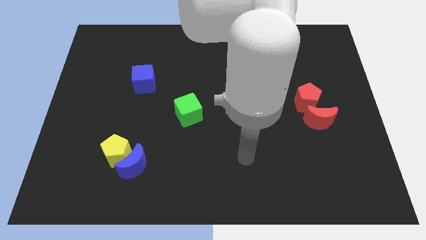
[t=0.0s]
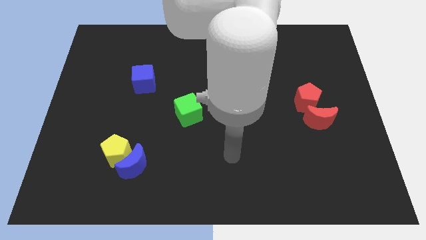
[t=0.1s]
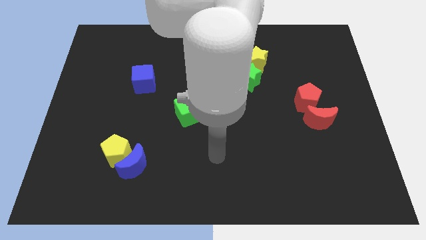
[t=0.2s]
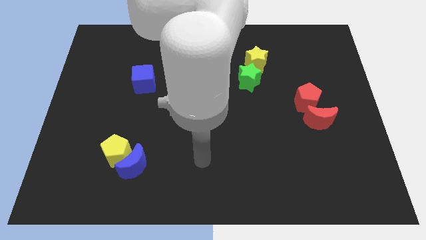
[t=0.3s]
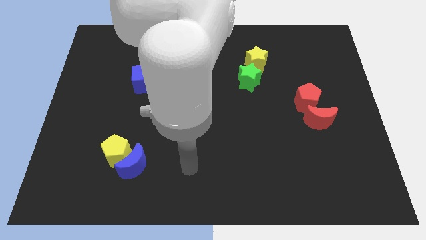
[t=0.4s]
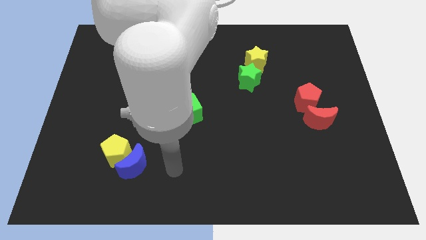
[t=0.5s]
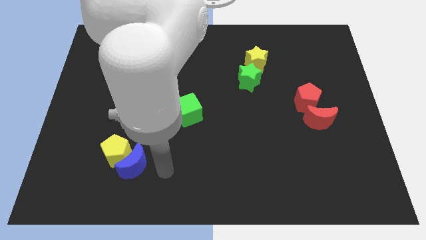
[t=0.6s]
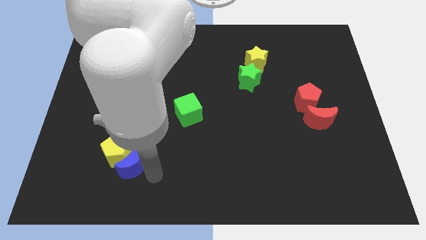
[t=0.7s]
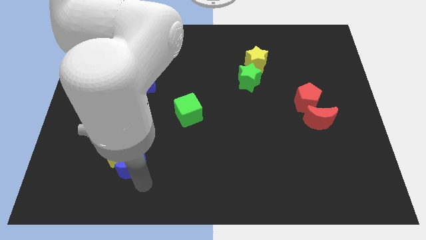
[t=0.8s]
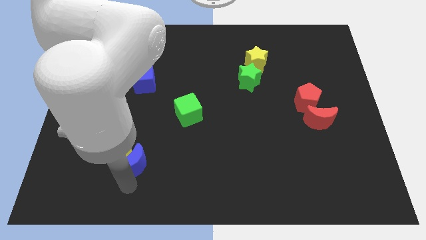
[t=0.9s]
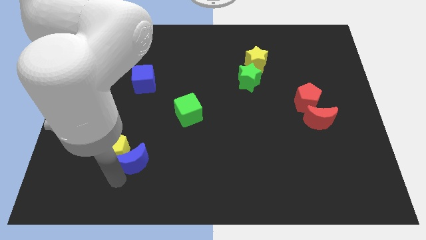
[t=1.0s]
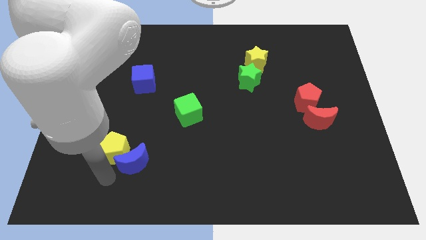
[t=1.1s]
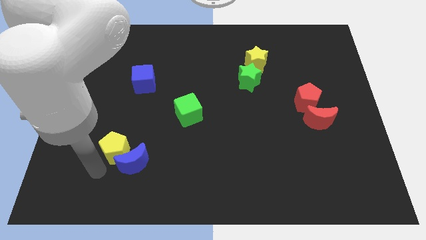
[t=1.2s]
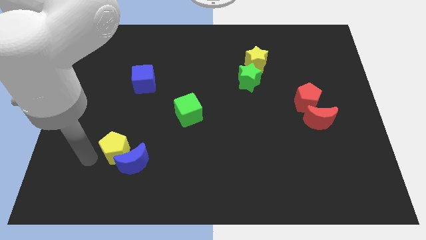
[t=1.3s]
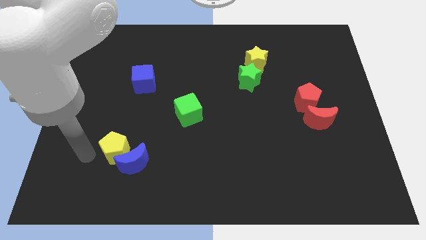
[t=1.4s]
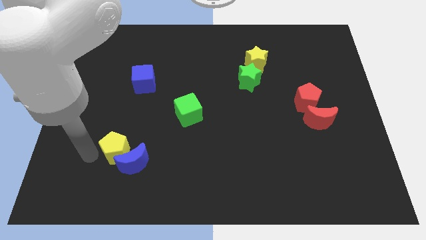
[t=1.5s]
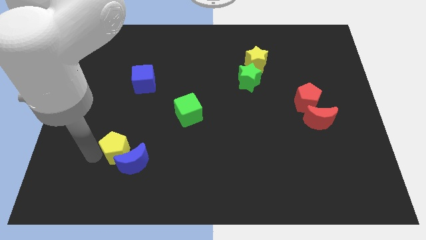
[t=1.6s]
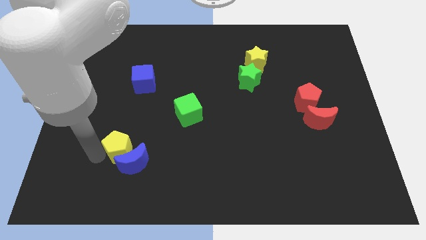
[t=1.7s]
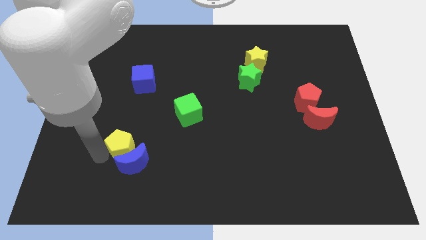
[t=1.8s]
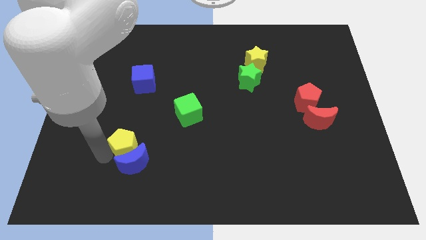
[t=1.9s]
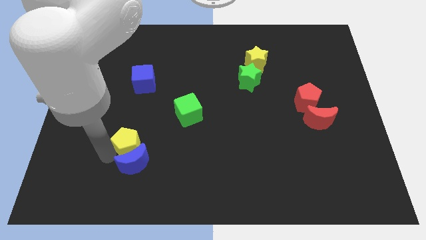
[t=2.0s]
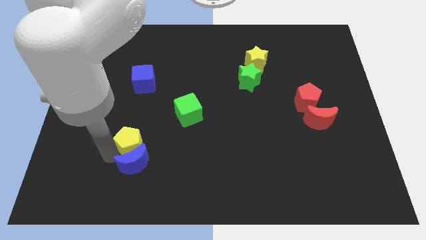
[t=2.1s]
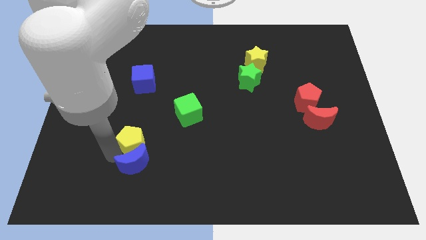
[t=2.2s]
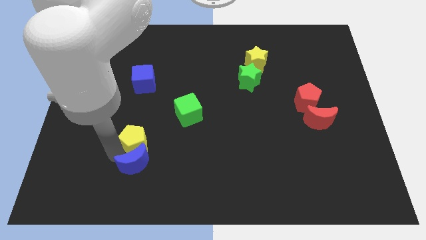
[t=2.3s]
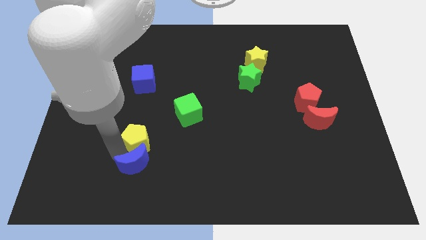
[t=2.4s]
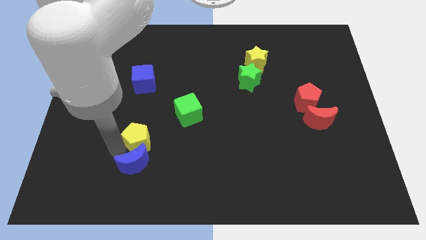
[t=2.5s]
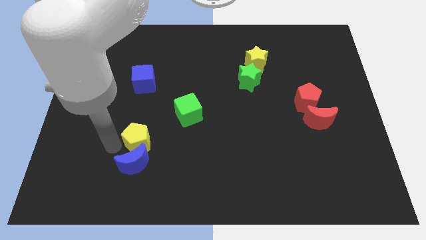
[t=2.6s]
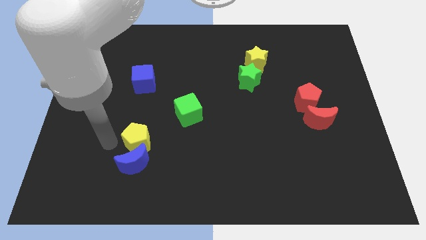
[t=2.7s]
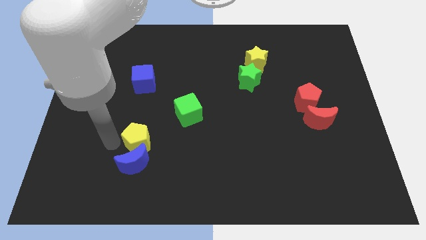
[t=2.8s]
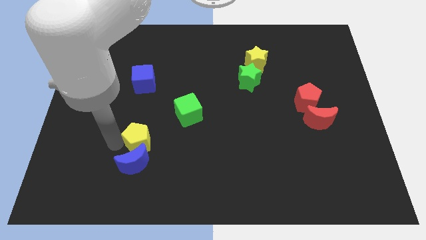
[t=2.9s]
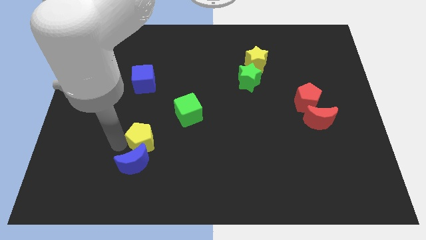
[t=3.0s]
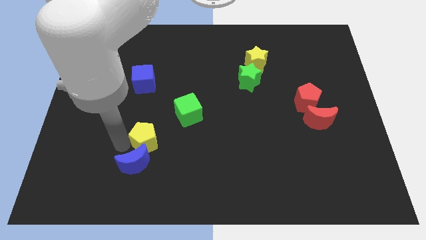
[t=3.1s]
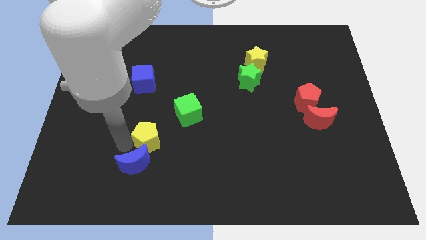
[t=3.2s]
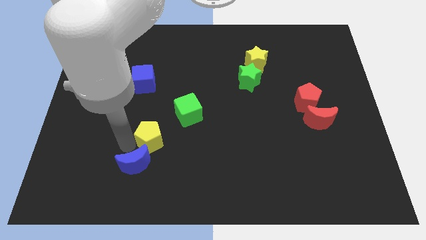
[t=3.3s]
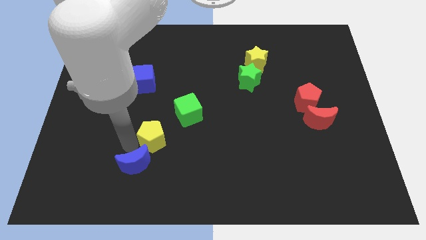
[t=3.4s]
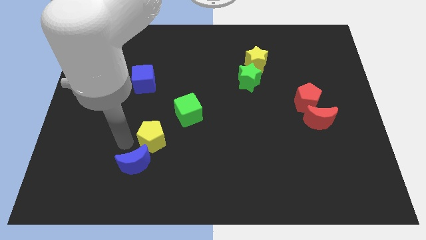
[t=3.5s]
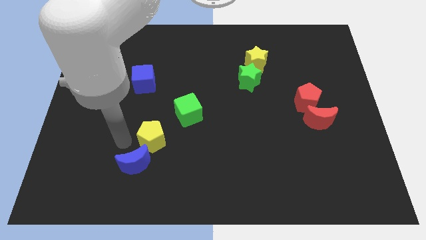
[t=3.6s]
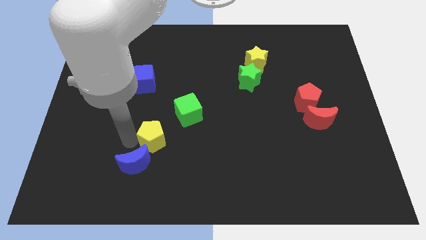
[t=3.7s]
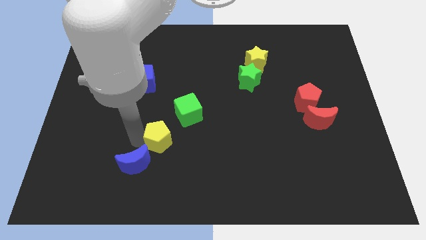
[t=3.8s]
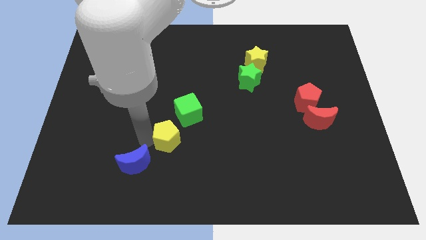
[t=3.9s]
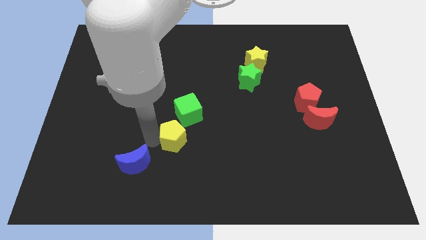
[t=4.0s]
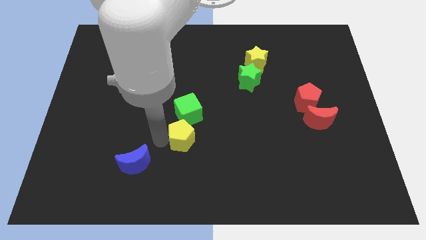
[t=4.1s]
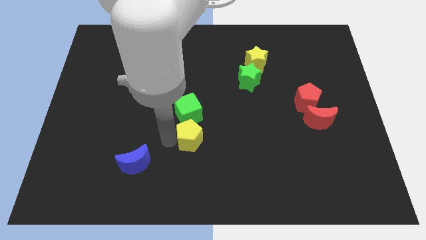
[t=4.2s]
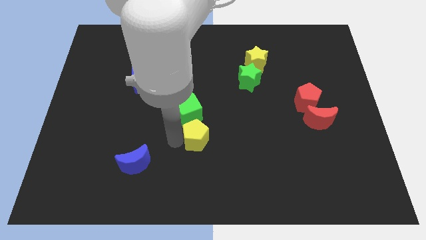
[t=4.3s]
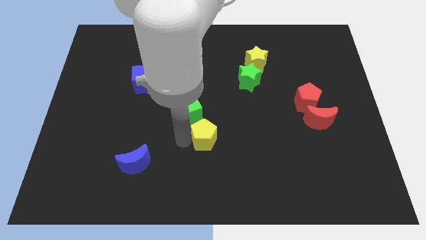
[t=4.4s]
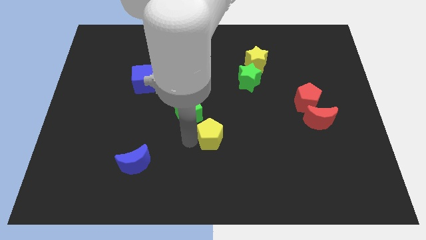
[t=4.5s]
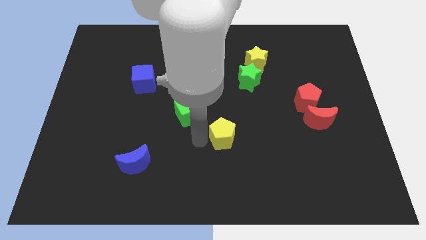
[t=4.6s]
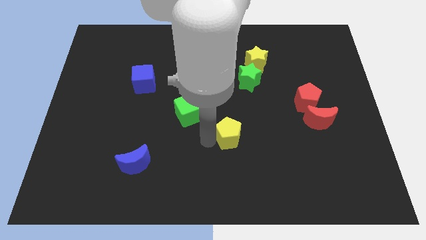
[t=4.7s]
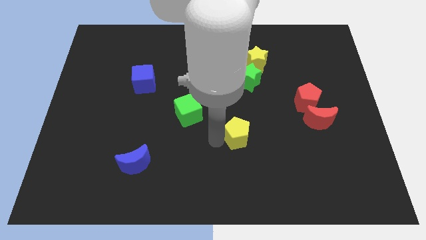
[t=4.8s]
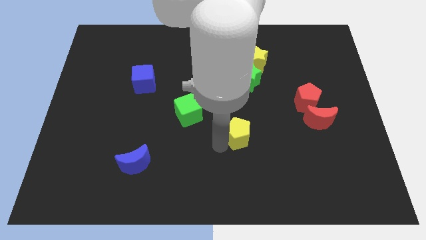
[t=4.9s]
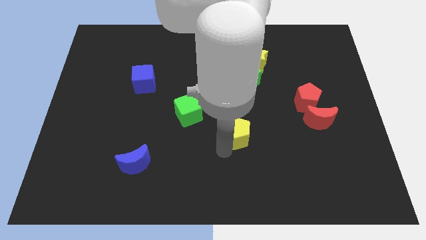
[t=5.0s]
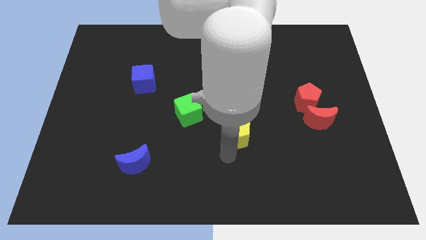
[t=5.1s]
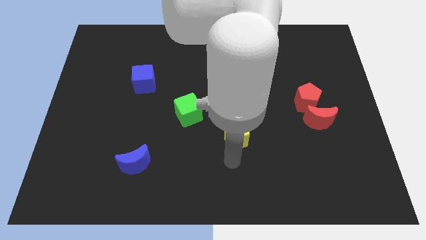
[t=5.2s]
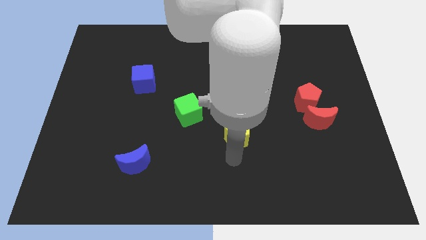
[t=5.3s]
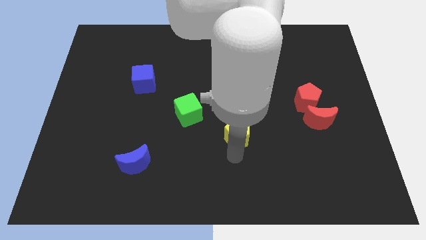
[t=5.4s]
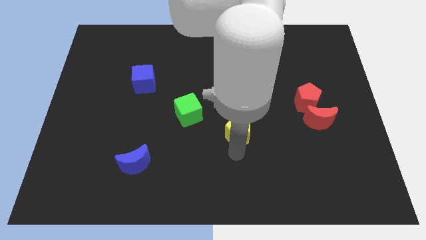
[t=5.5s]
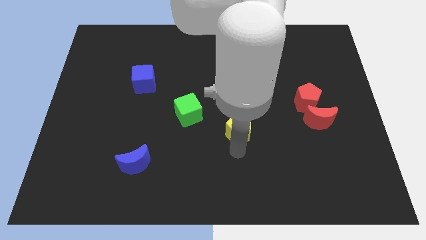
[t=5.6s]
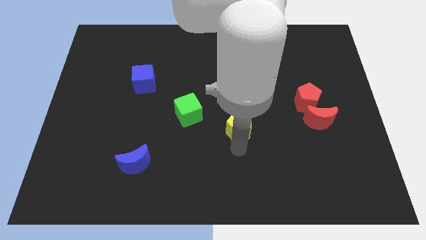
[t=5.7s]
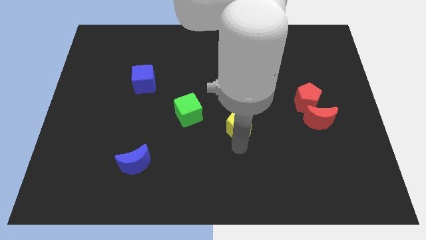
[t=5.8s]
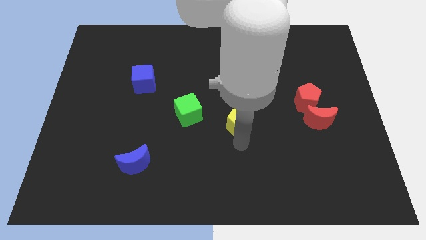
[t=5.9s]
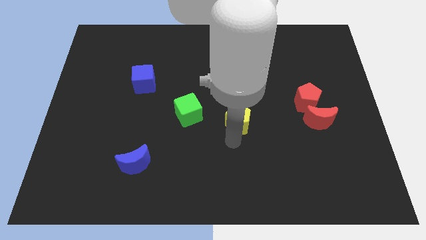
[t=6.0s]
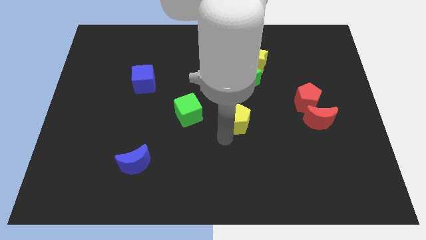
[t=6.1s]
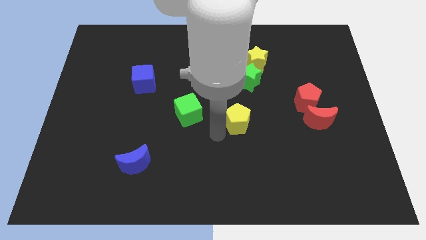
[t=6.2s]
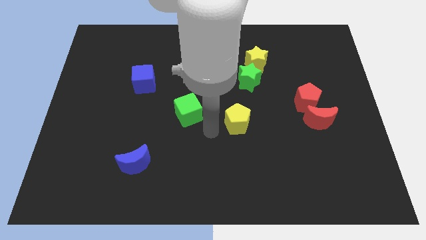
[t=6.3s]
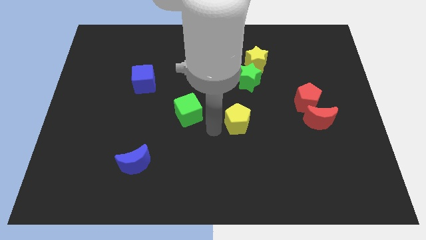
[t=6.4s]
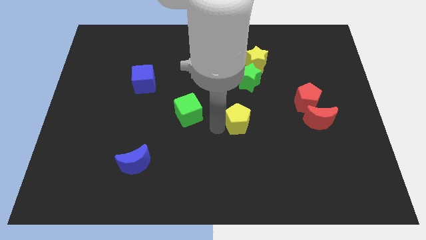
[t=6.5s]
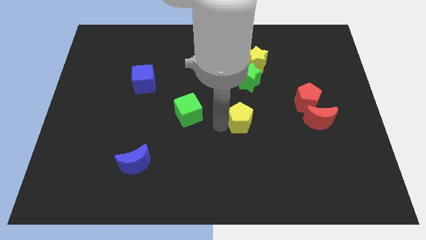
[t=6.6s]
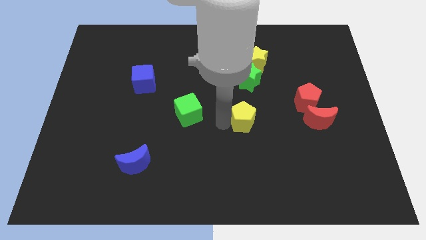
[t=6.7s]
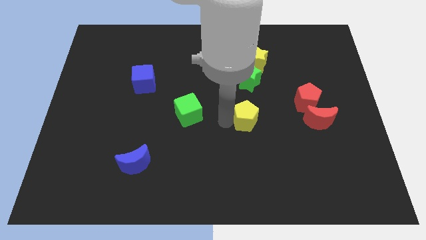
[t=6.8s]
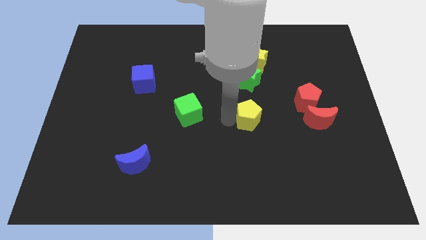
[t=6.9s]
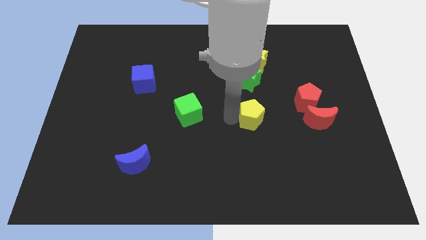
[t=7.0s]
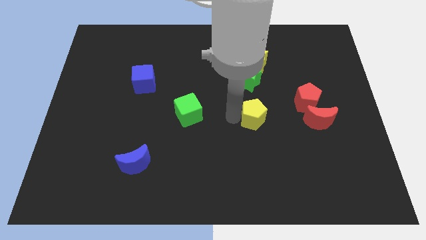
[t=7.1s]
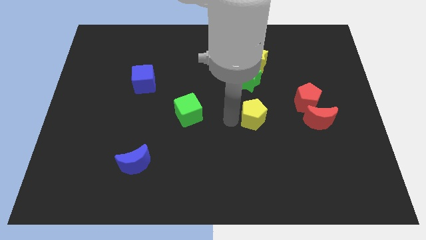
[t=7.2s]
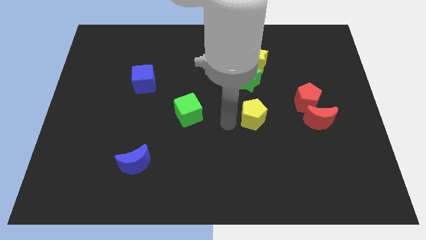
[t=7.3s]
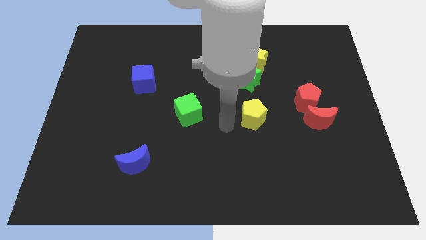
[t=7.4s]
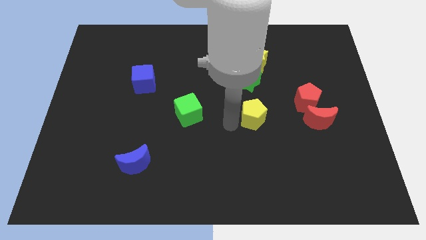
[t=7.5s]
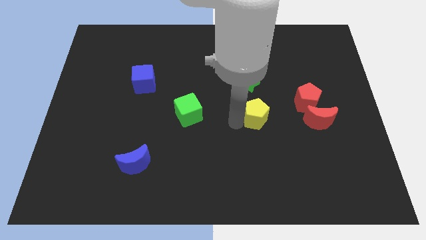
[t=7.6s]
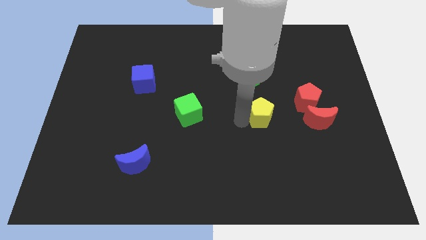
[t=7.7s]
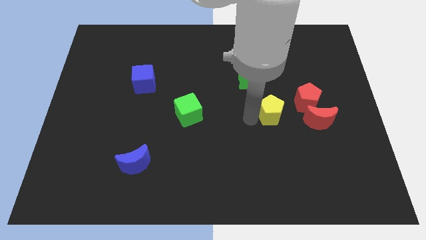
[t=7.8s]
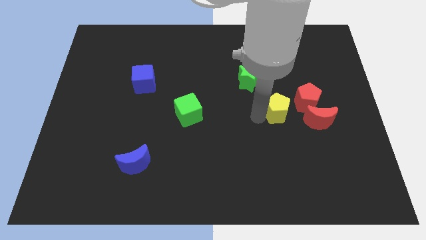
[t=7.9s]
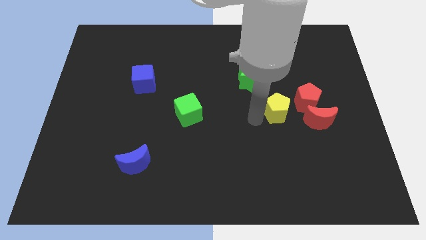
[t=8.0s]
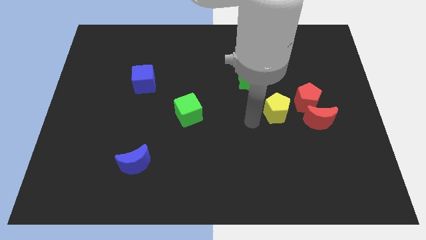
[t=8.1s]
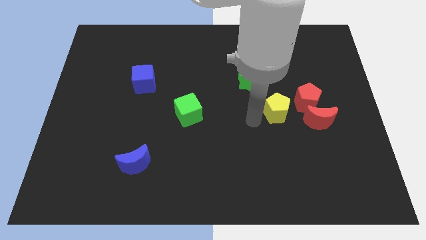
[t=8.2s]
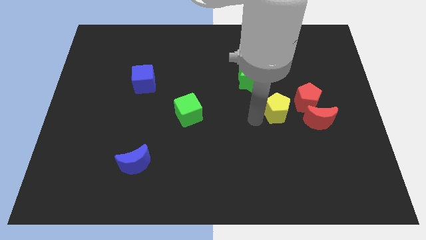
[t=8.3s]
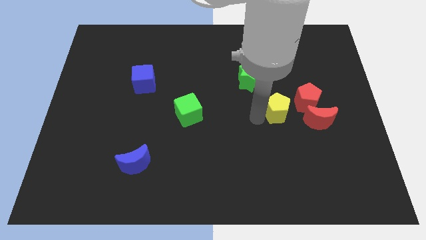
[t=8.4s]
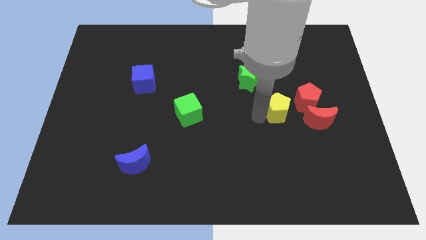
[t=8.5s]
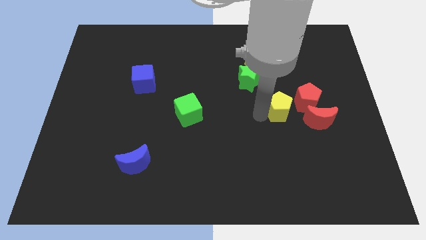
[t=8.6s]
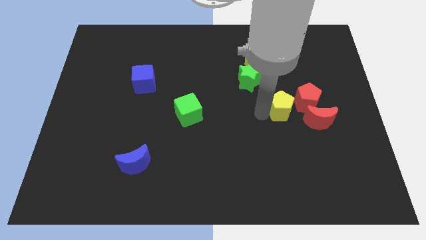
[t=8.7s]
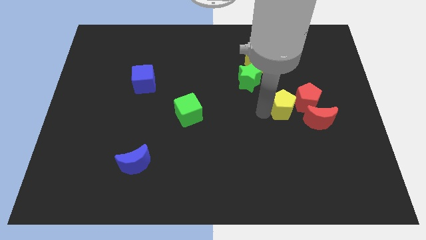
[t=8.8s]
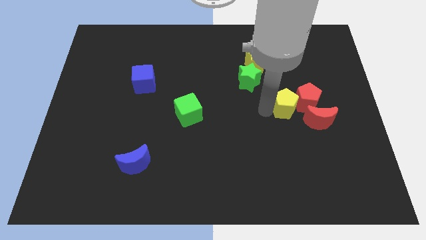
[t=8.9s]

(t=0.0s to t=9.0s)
slide the yellow pentagon next to the red pentagon
